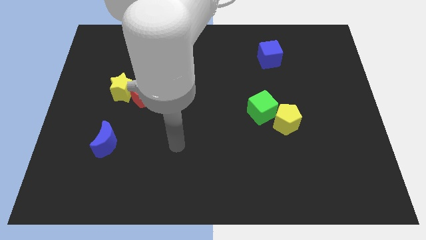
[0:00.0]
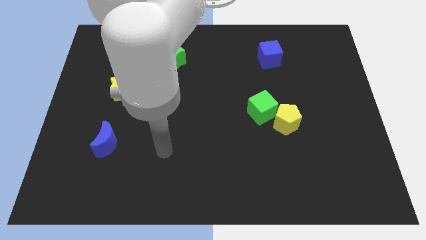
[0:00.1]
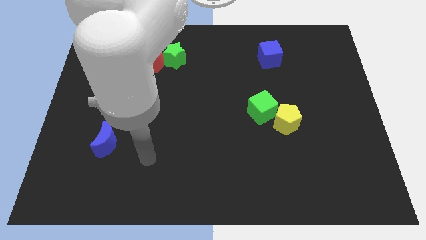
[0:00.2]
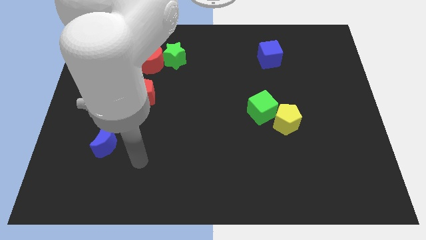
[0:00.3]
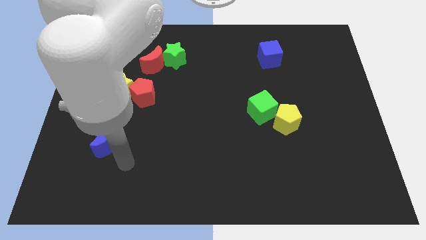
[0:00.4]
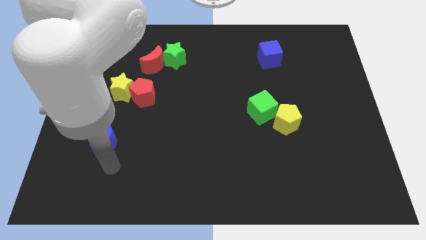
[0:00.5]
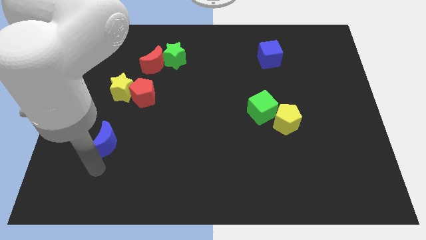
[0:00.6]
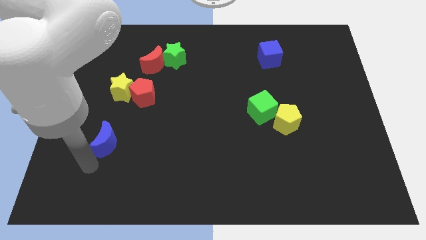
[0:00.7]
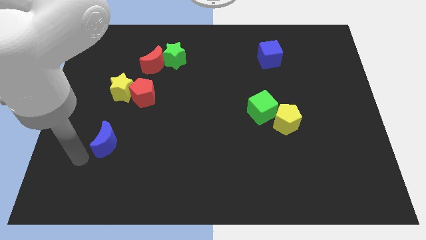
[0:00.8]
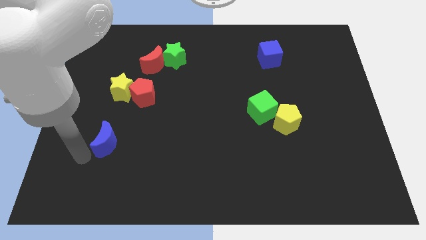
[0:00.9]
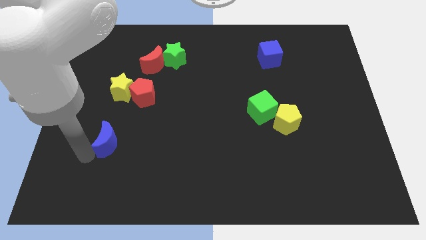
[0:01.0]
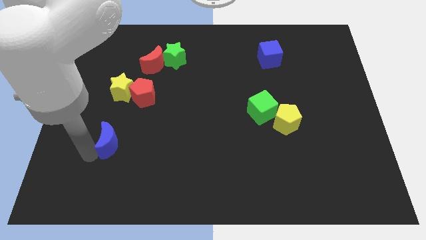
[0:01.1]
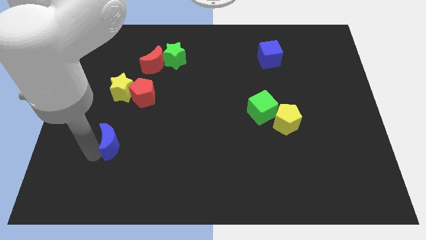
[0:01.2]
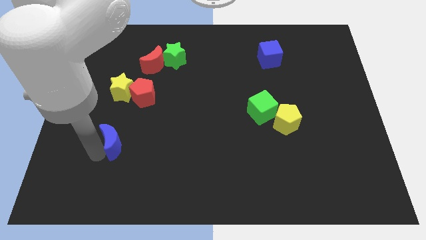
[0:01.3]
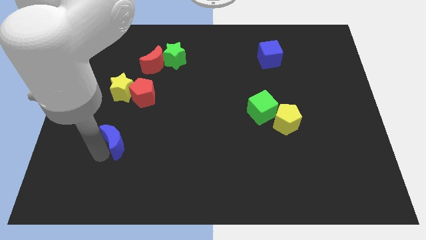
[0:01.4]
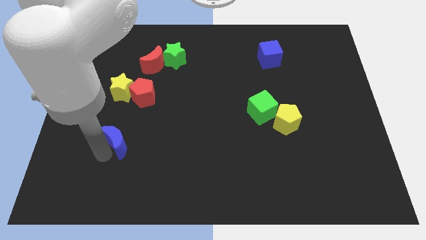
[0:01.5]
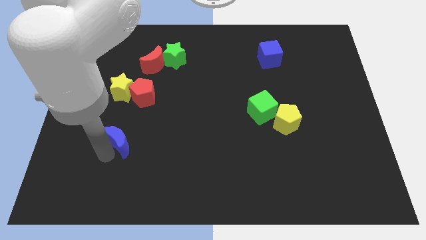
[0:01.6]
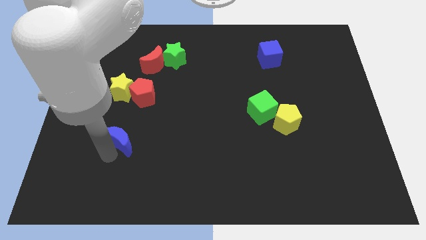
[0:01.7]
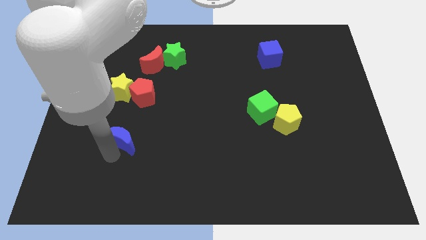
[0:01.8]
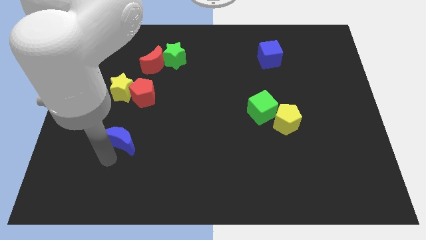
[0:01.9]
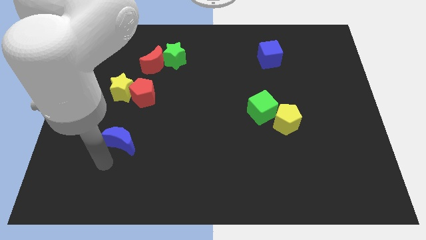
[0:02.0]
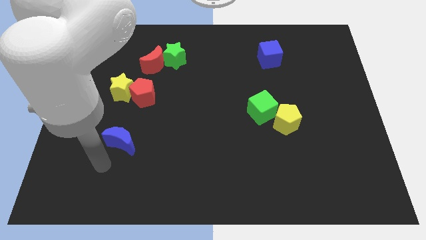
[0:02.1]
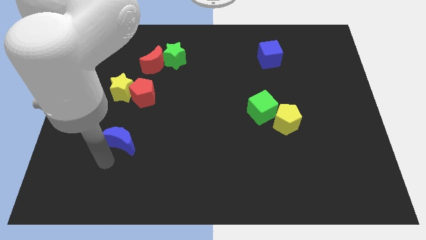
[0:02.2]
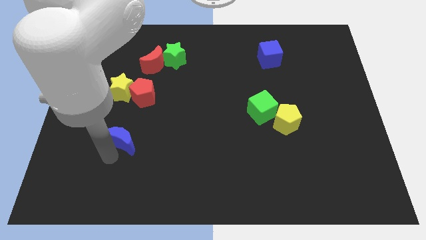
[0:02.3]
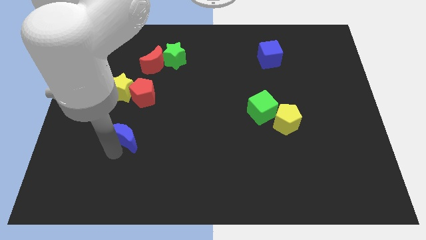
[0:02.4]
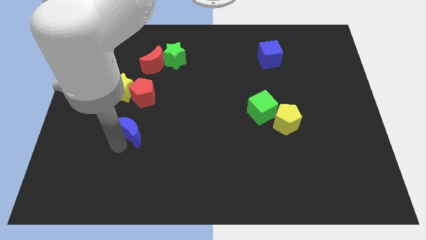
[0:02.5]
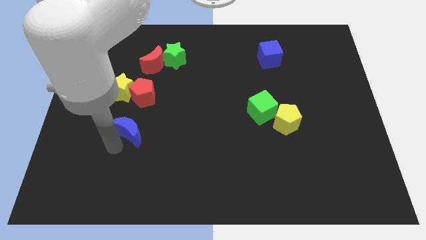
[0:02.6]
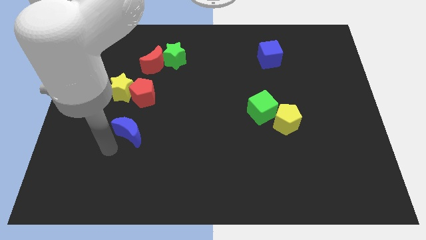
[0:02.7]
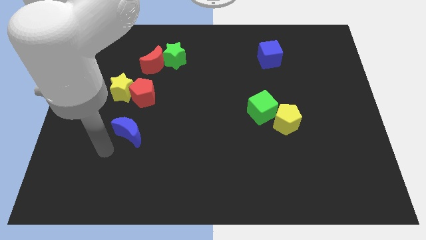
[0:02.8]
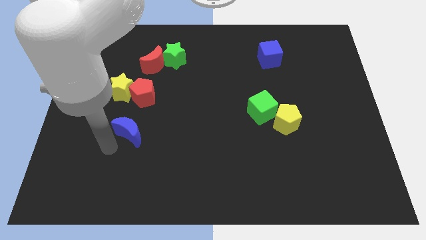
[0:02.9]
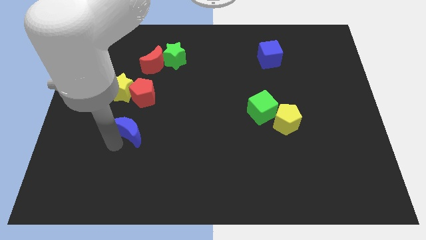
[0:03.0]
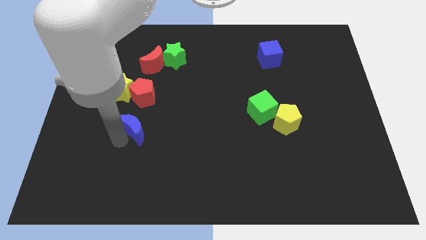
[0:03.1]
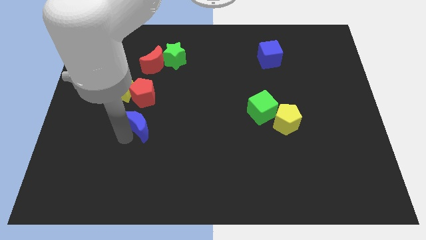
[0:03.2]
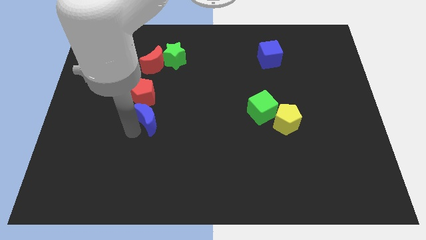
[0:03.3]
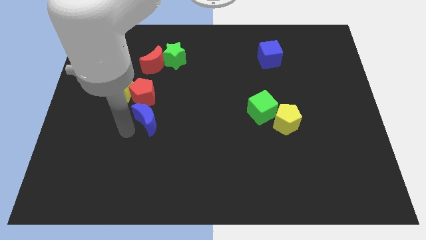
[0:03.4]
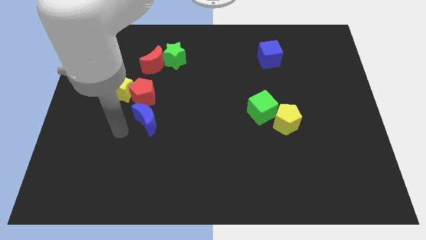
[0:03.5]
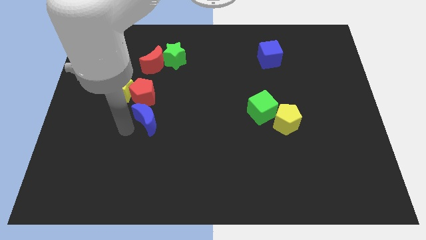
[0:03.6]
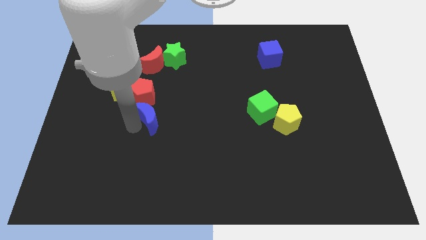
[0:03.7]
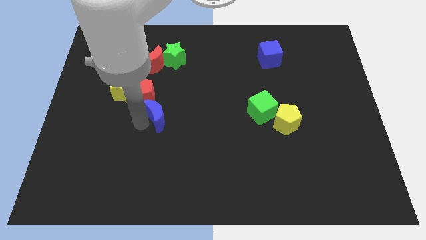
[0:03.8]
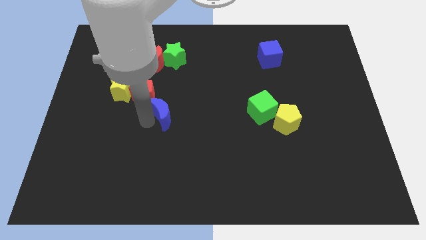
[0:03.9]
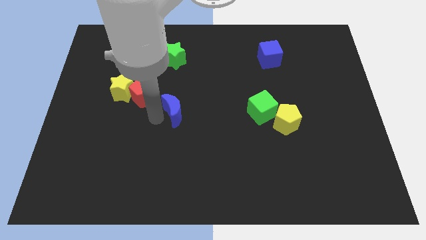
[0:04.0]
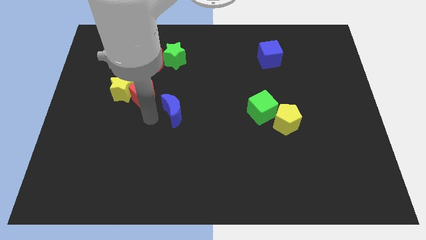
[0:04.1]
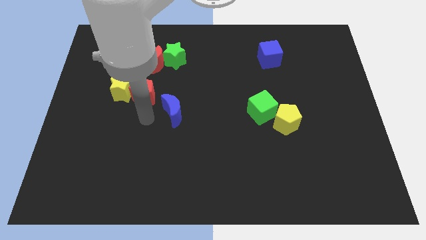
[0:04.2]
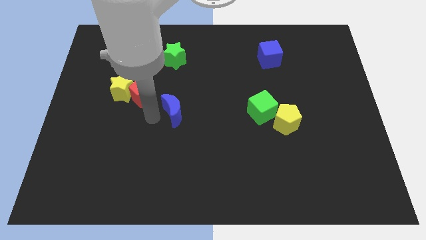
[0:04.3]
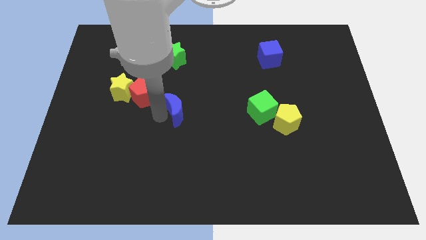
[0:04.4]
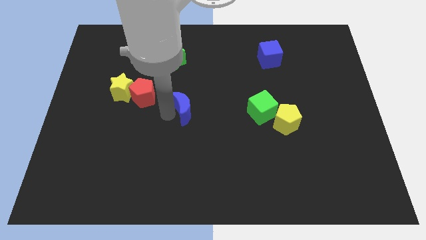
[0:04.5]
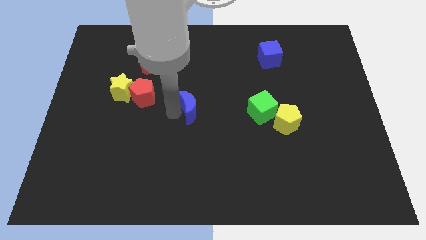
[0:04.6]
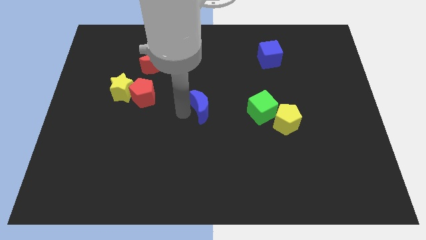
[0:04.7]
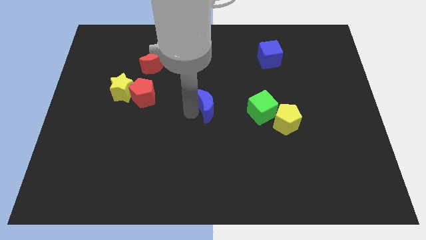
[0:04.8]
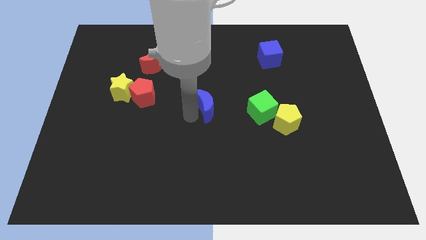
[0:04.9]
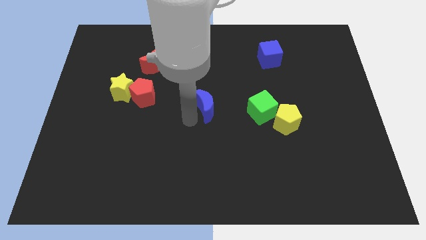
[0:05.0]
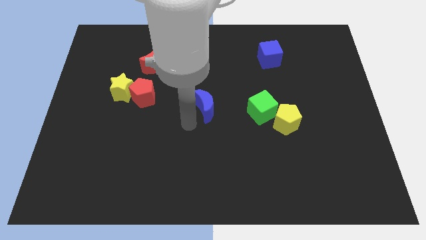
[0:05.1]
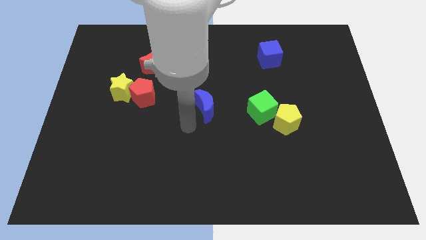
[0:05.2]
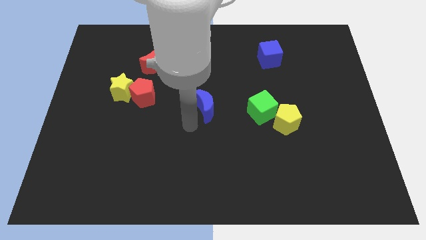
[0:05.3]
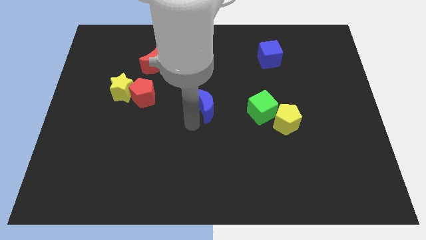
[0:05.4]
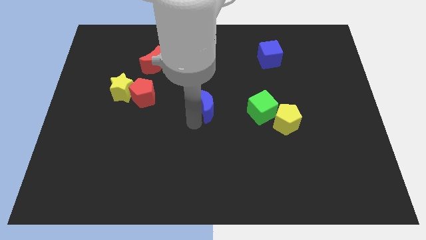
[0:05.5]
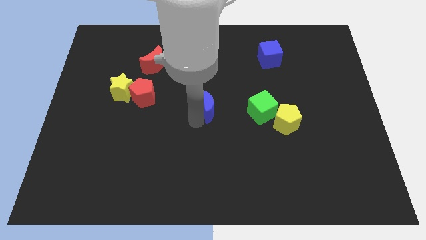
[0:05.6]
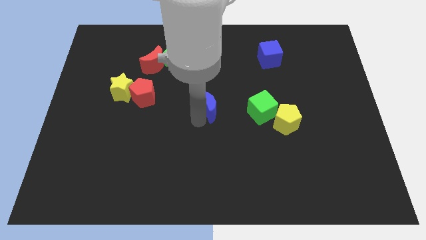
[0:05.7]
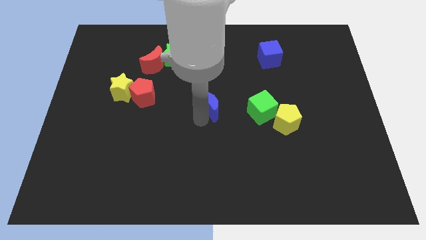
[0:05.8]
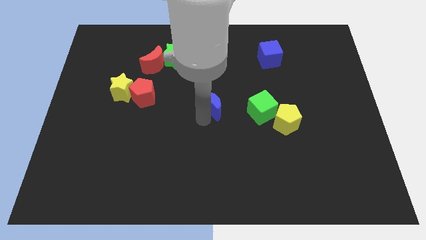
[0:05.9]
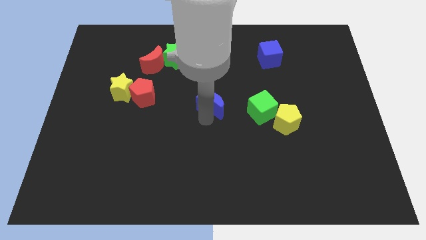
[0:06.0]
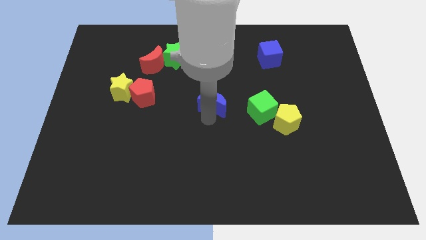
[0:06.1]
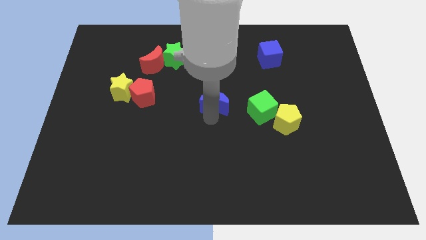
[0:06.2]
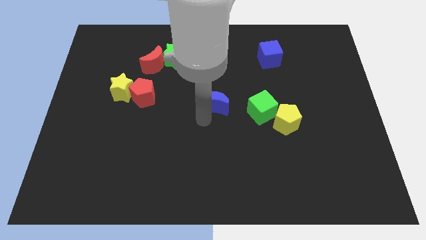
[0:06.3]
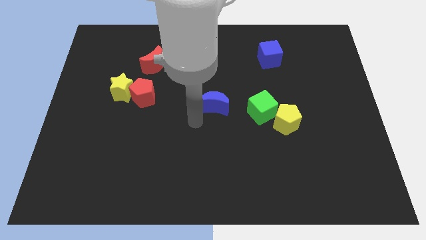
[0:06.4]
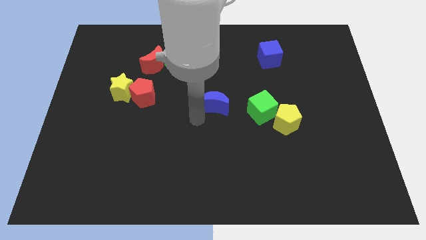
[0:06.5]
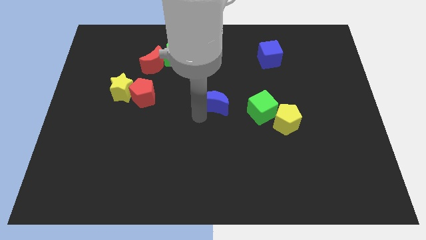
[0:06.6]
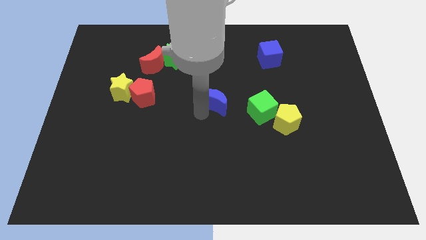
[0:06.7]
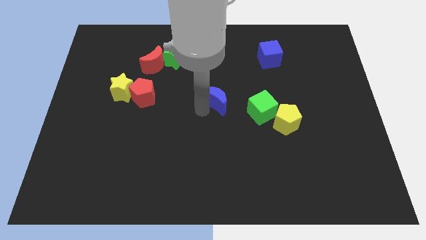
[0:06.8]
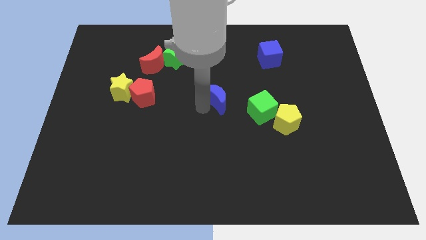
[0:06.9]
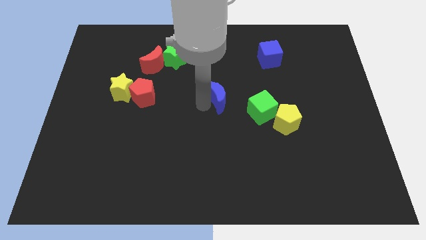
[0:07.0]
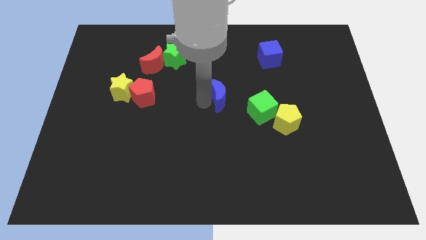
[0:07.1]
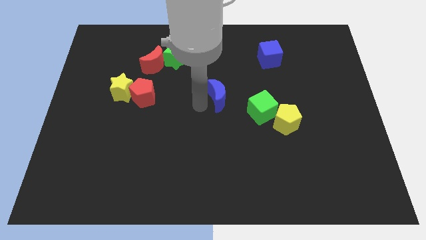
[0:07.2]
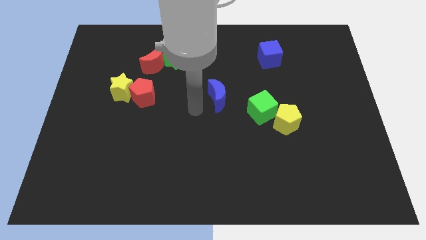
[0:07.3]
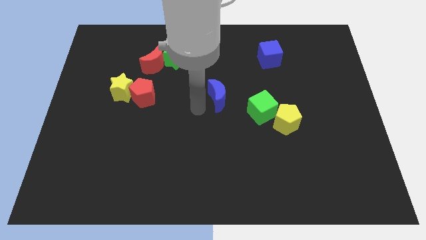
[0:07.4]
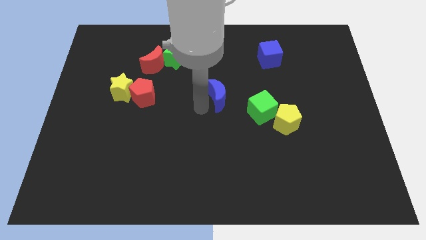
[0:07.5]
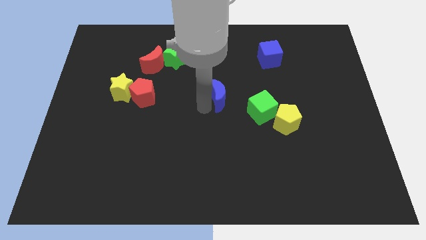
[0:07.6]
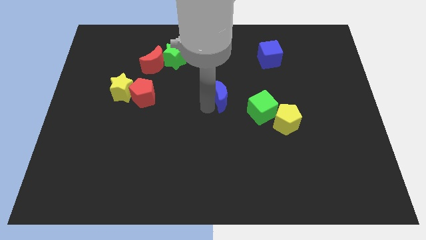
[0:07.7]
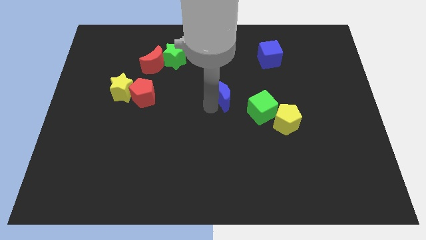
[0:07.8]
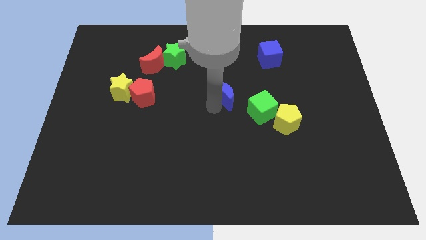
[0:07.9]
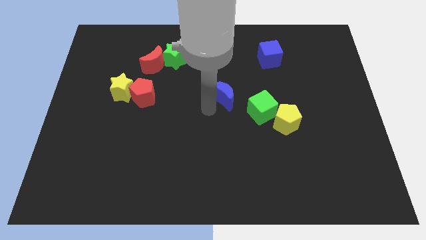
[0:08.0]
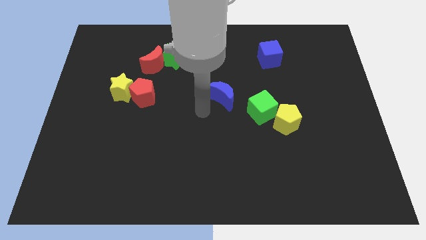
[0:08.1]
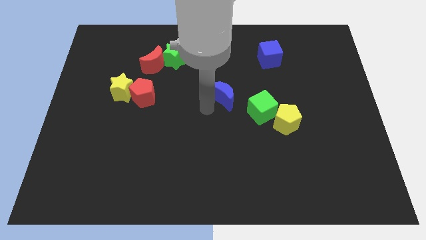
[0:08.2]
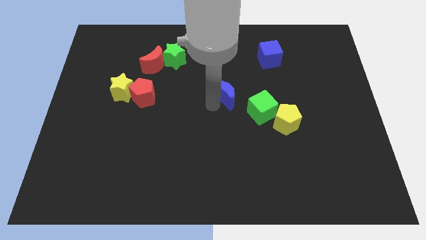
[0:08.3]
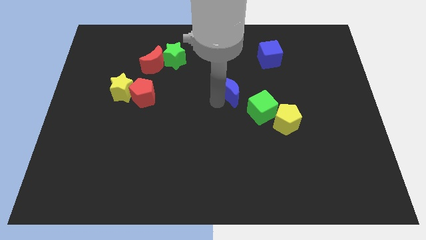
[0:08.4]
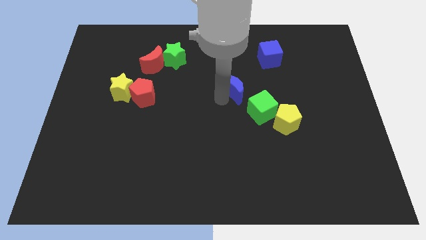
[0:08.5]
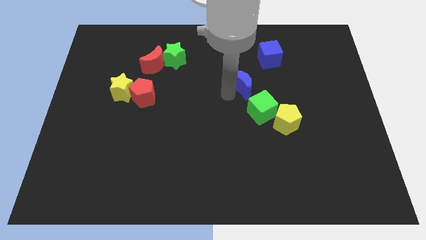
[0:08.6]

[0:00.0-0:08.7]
put the blue moon to the top of the green cube
